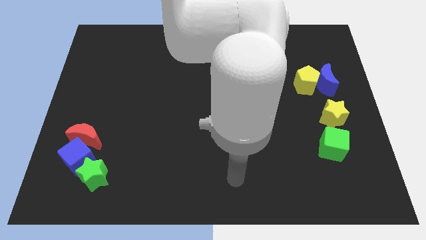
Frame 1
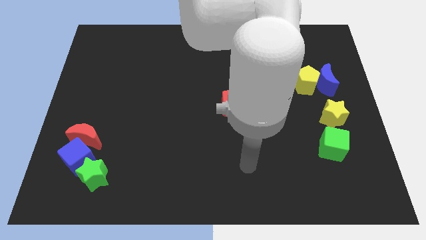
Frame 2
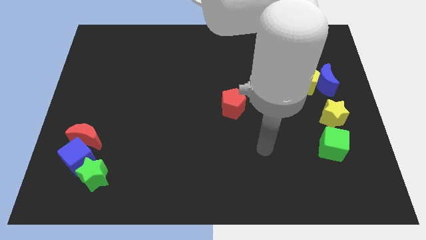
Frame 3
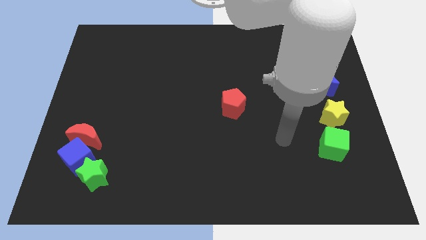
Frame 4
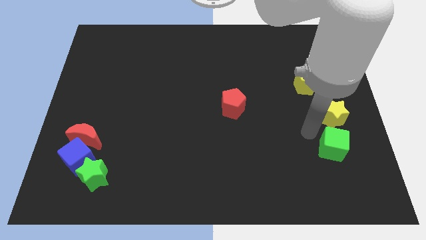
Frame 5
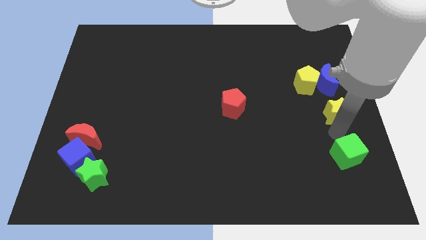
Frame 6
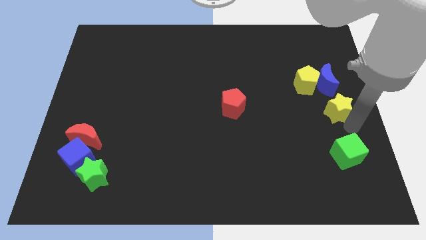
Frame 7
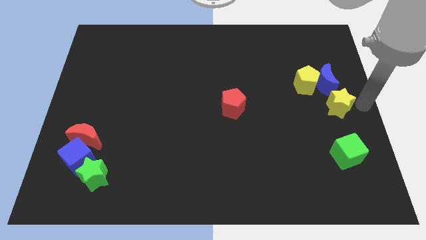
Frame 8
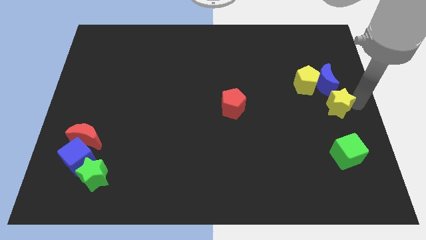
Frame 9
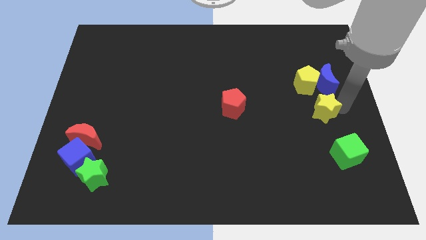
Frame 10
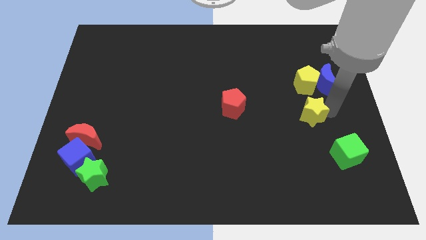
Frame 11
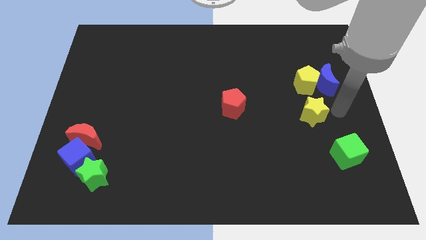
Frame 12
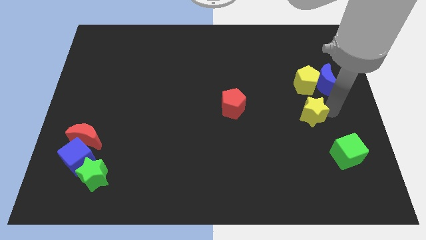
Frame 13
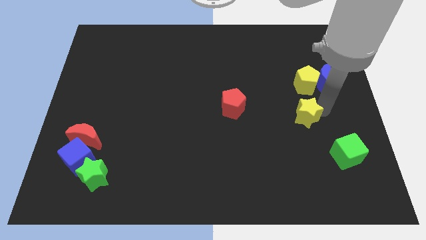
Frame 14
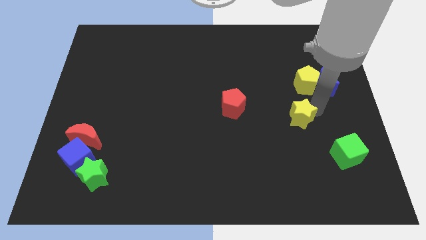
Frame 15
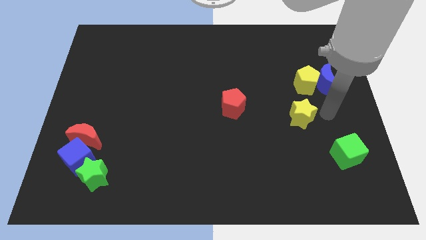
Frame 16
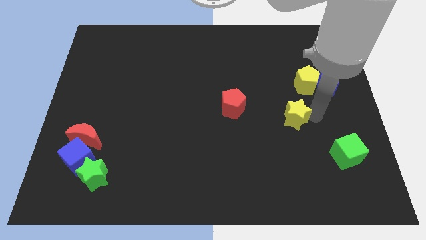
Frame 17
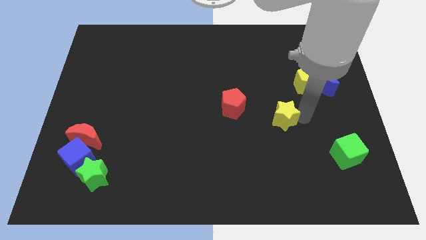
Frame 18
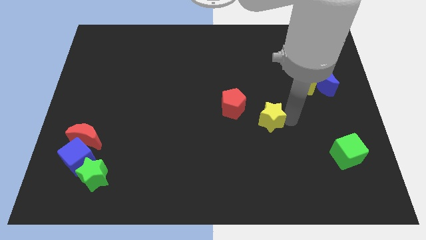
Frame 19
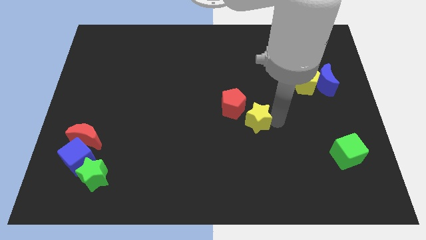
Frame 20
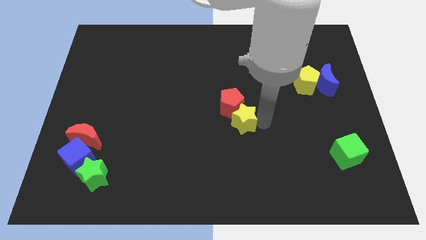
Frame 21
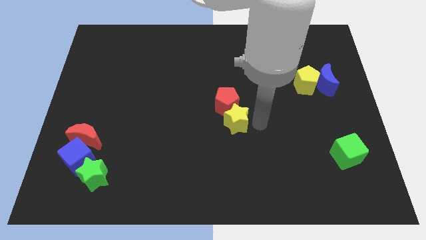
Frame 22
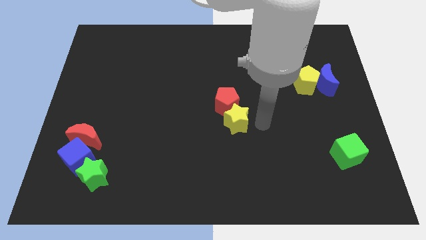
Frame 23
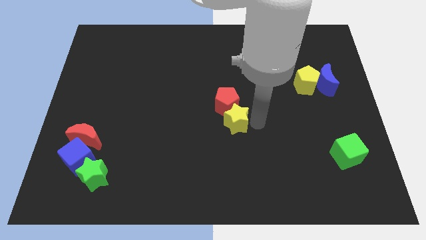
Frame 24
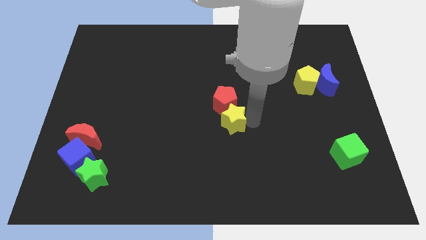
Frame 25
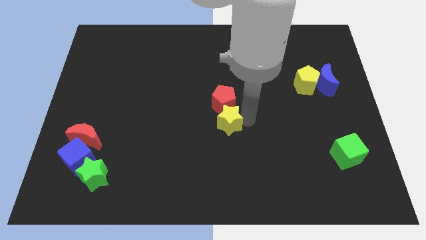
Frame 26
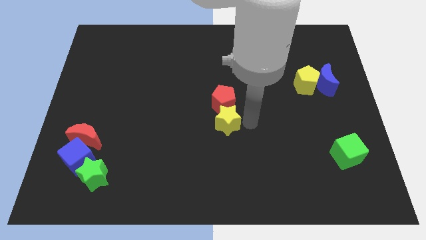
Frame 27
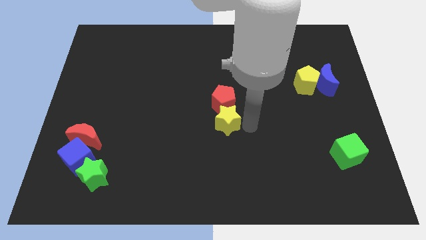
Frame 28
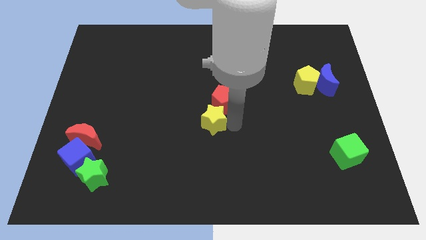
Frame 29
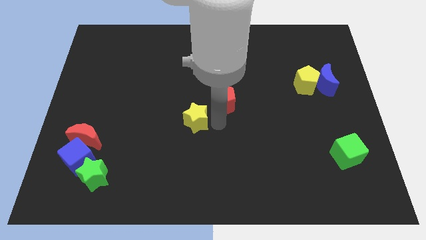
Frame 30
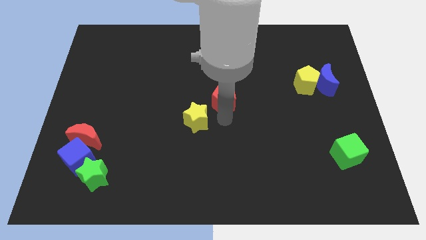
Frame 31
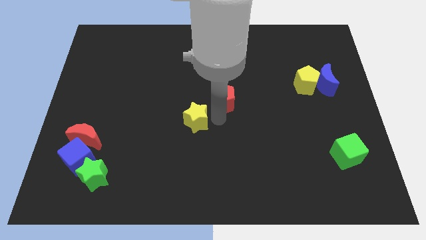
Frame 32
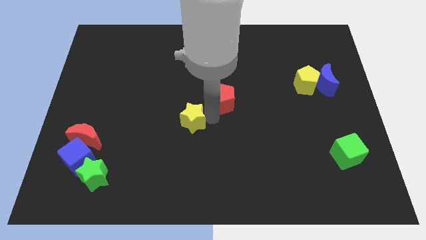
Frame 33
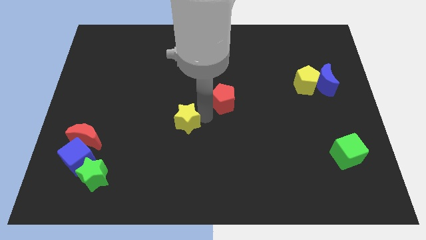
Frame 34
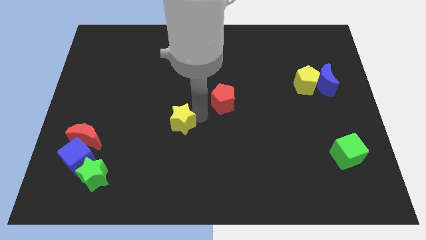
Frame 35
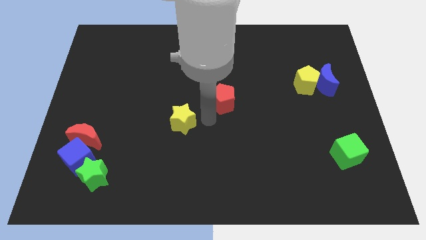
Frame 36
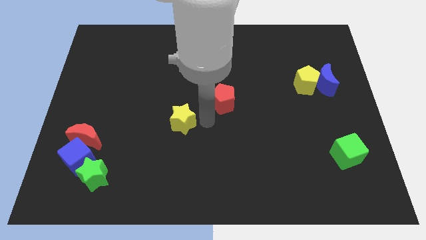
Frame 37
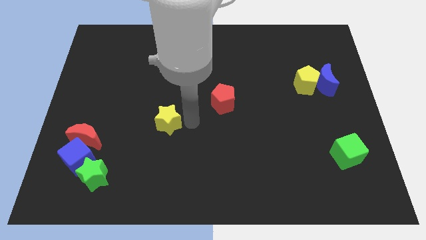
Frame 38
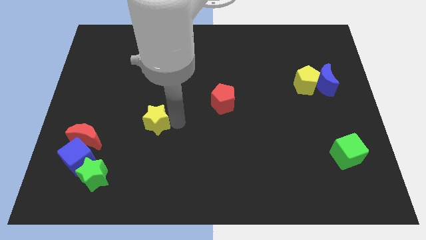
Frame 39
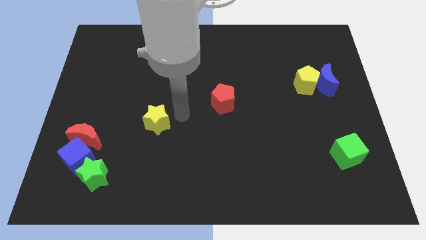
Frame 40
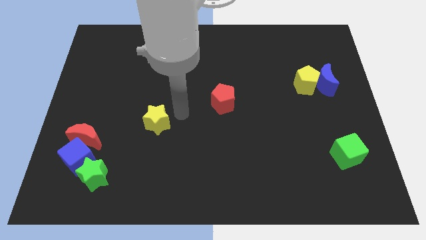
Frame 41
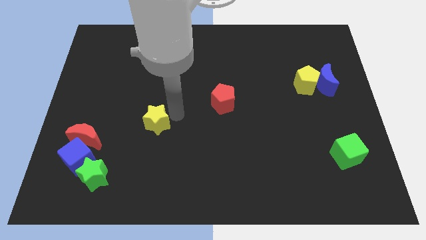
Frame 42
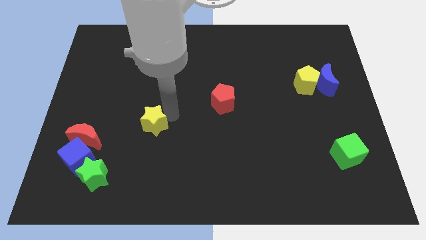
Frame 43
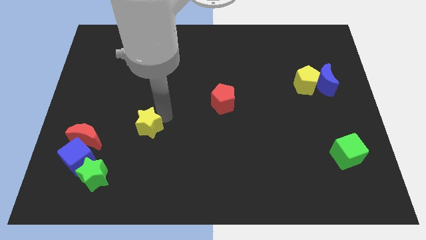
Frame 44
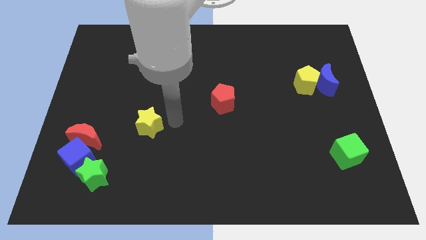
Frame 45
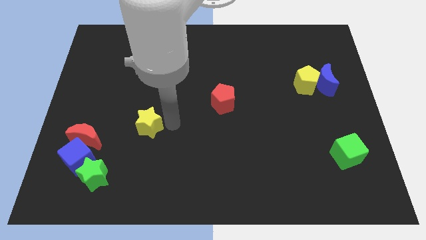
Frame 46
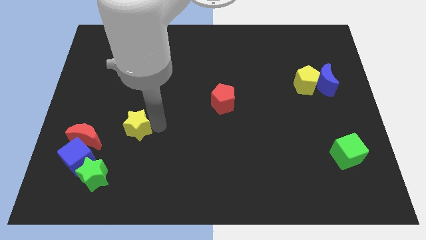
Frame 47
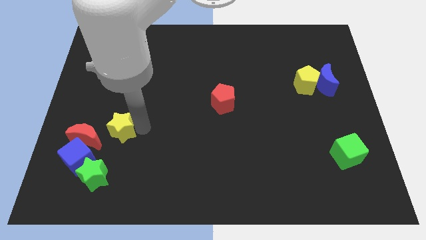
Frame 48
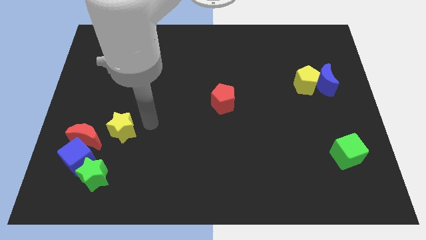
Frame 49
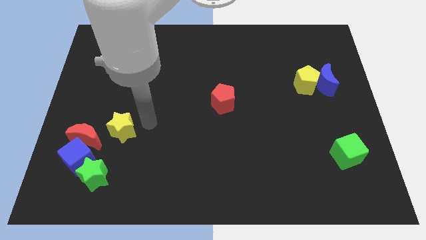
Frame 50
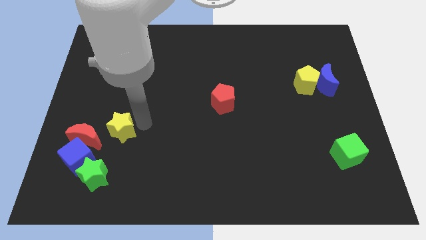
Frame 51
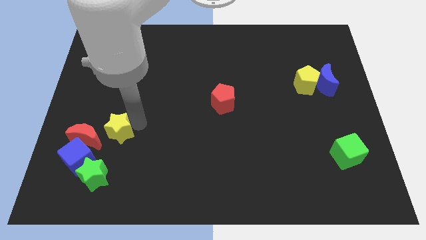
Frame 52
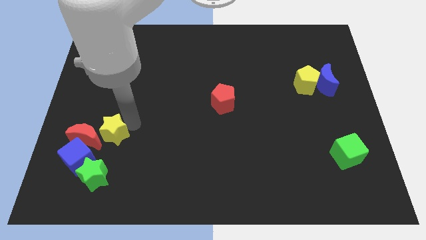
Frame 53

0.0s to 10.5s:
slide the yellow star next to the red moon

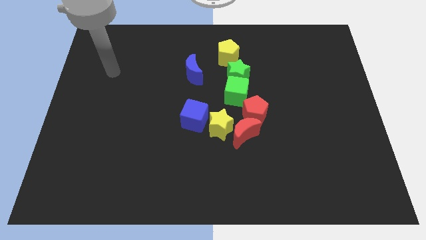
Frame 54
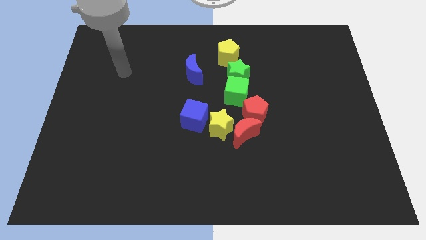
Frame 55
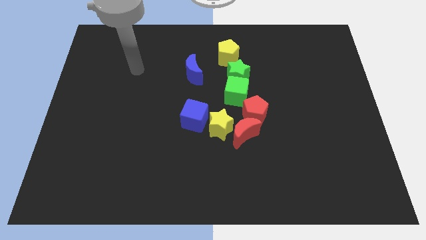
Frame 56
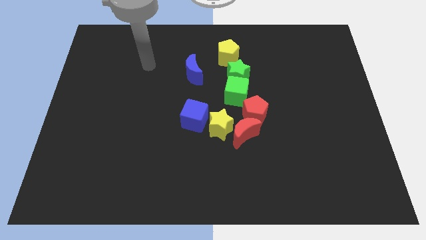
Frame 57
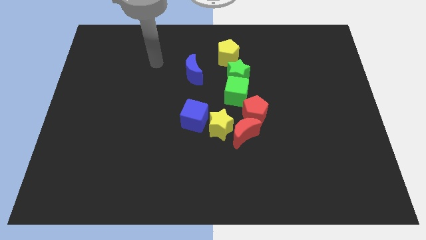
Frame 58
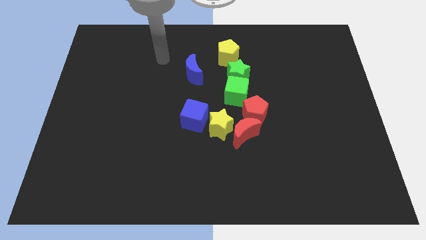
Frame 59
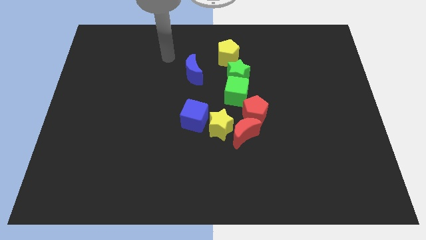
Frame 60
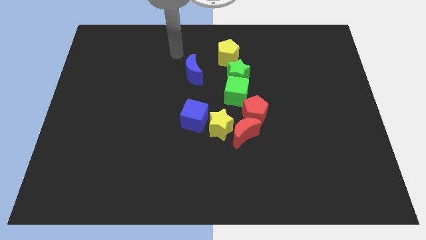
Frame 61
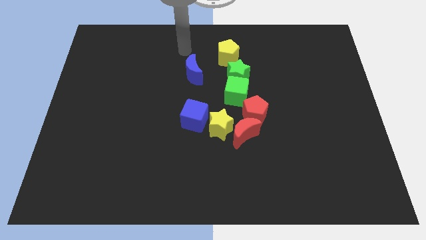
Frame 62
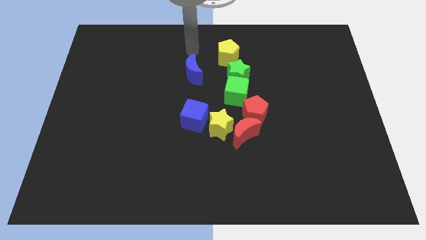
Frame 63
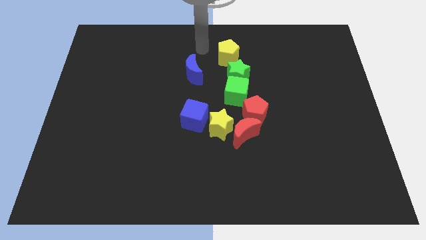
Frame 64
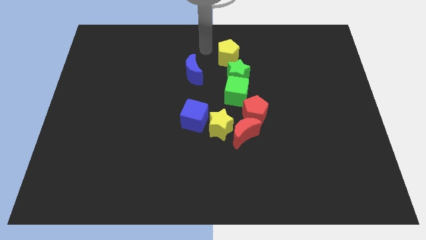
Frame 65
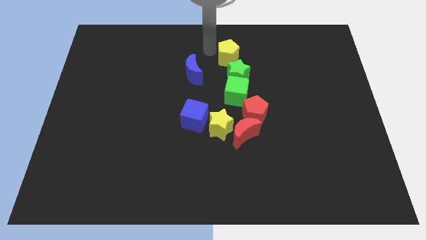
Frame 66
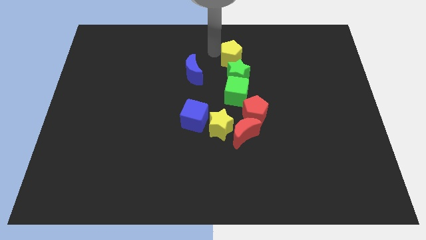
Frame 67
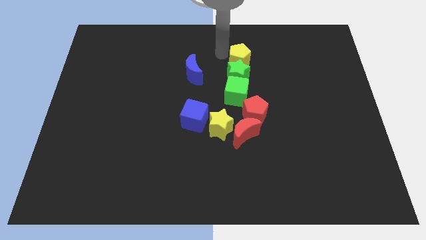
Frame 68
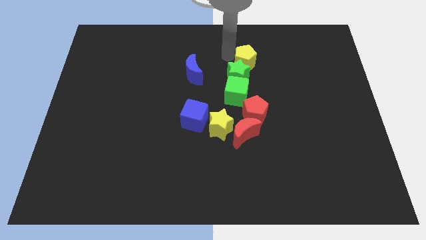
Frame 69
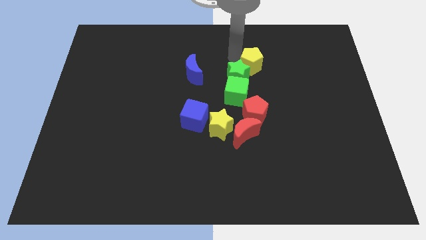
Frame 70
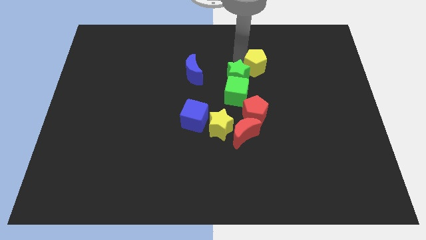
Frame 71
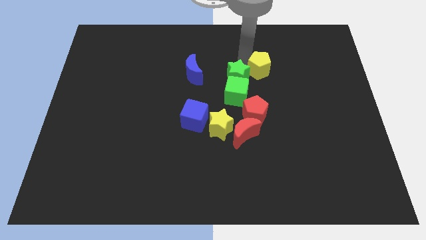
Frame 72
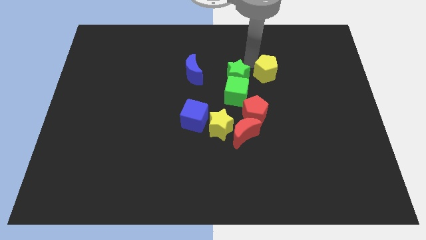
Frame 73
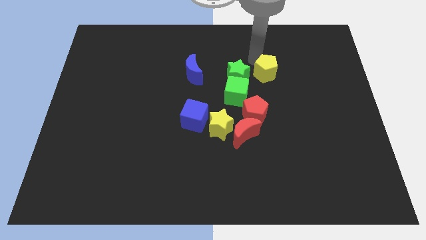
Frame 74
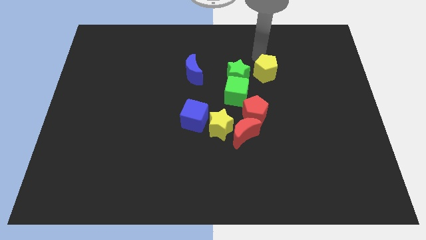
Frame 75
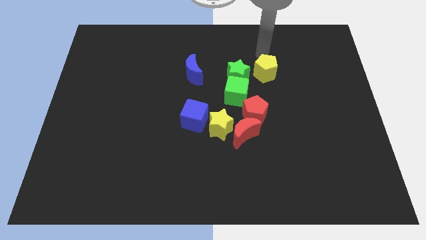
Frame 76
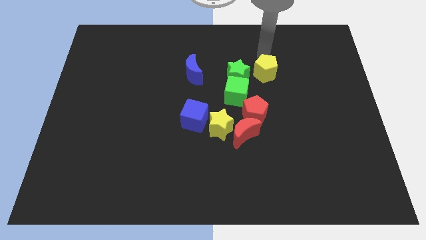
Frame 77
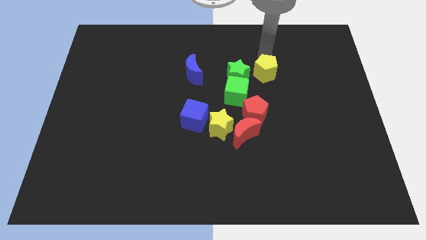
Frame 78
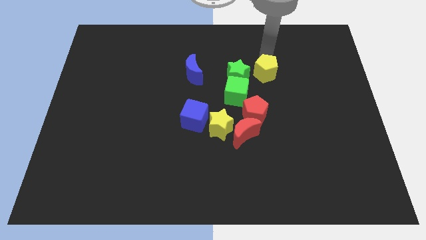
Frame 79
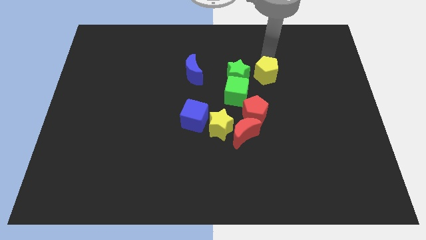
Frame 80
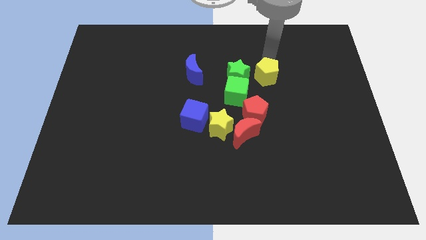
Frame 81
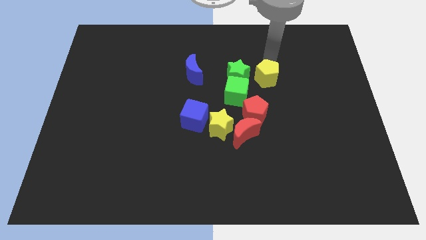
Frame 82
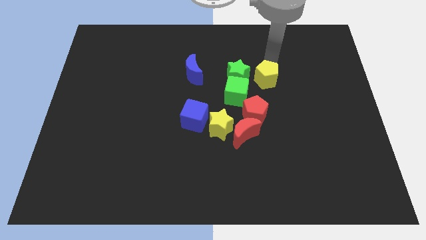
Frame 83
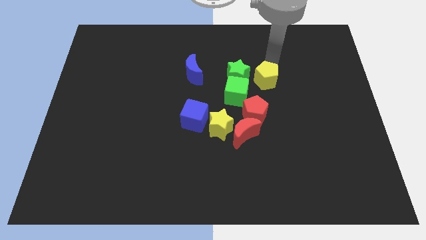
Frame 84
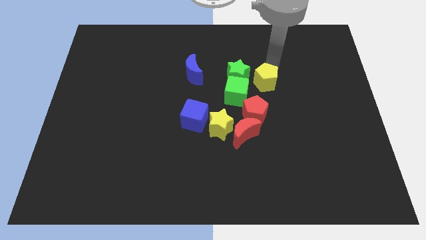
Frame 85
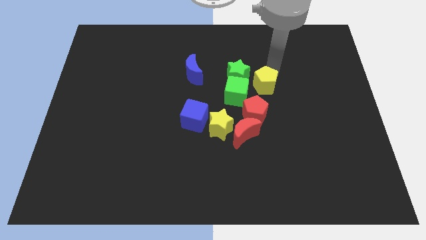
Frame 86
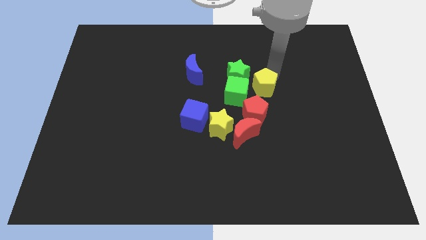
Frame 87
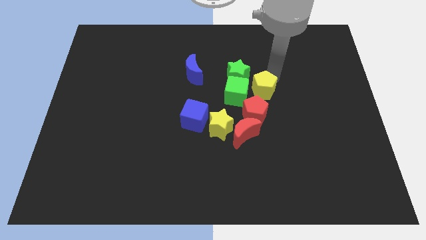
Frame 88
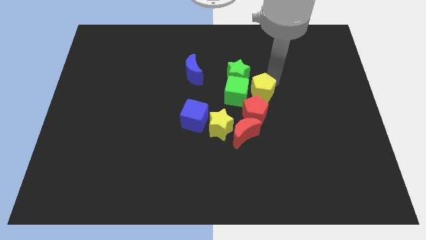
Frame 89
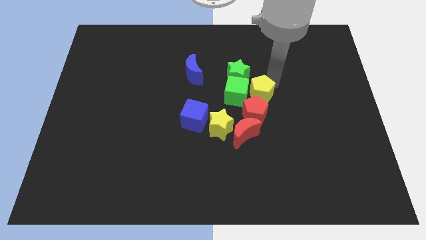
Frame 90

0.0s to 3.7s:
push the yellow pentagon towards the red pentagon
